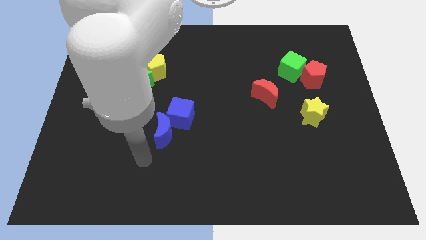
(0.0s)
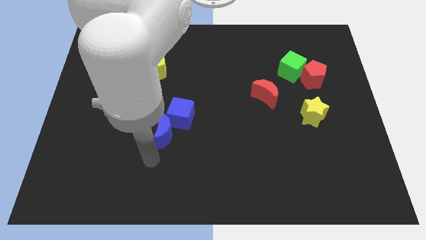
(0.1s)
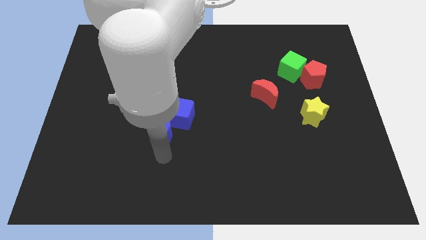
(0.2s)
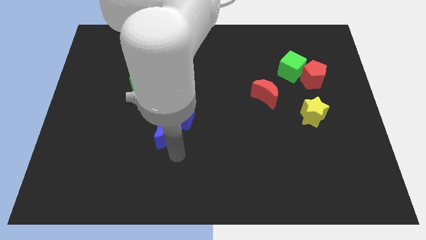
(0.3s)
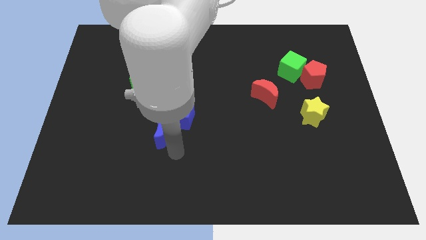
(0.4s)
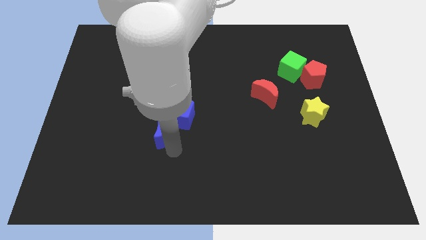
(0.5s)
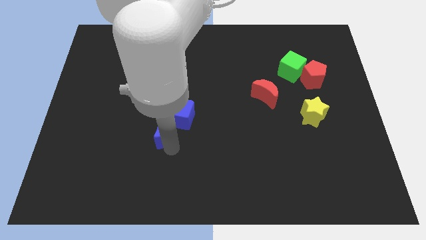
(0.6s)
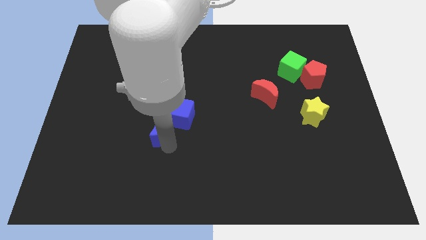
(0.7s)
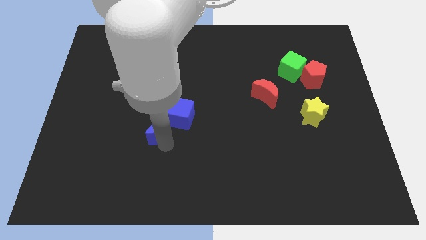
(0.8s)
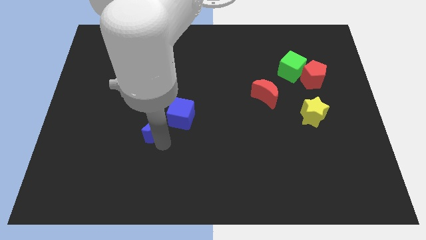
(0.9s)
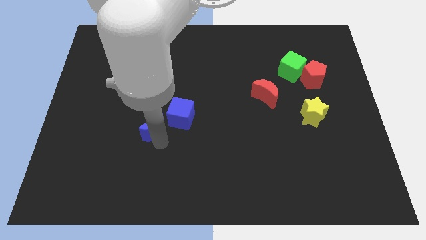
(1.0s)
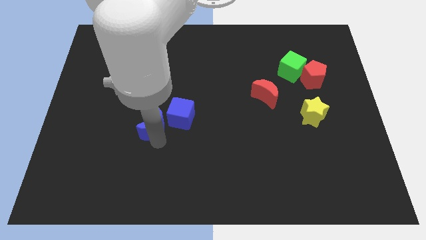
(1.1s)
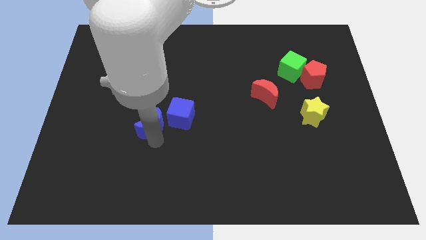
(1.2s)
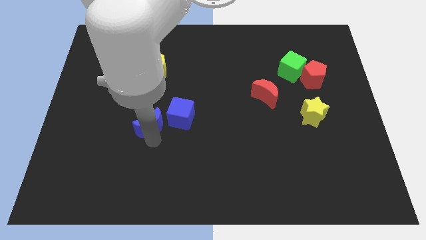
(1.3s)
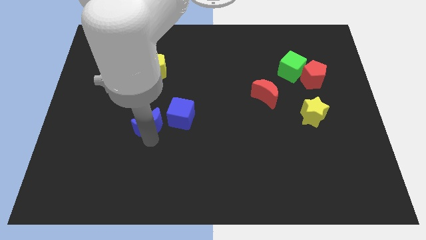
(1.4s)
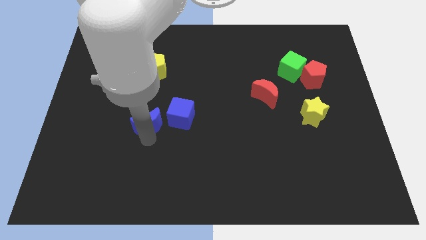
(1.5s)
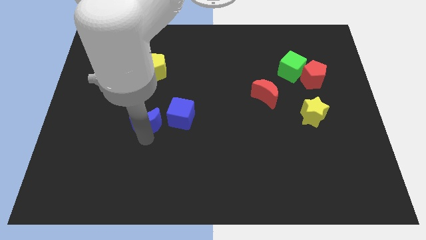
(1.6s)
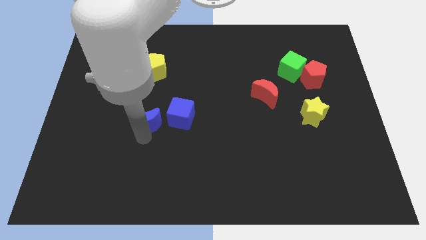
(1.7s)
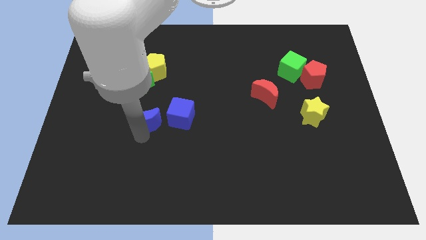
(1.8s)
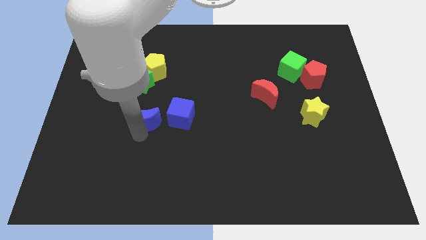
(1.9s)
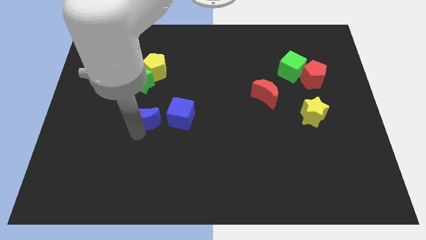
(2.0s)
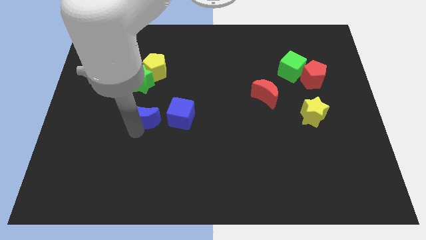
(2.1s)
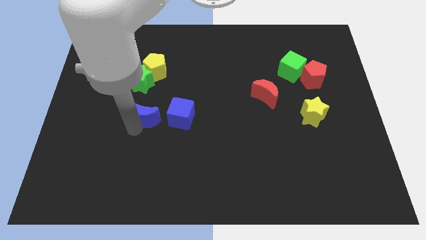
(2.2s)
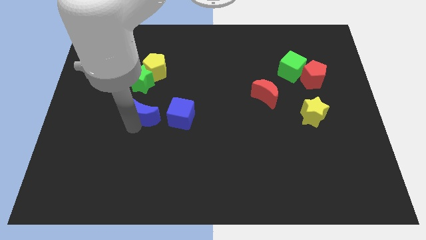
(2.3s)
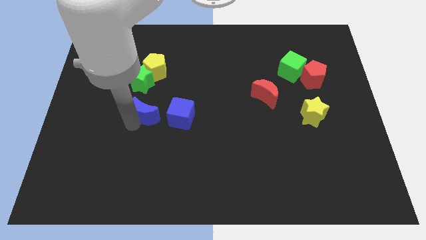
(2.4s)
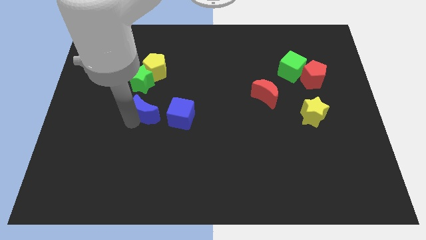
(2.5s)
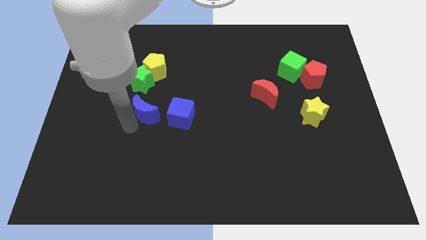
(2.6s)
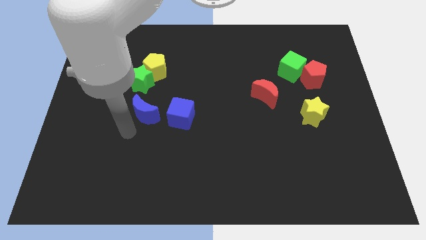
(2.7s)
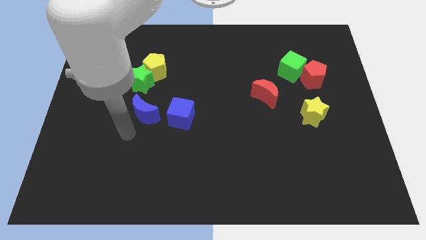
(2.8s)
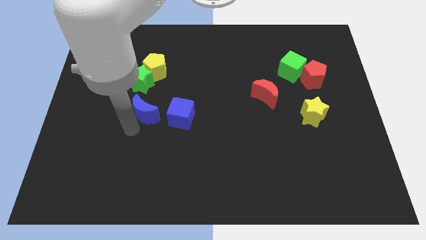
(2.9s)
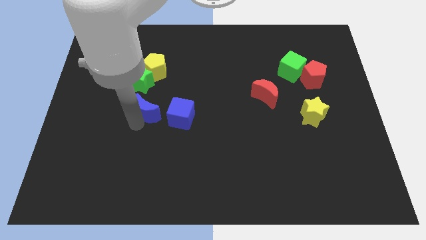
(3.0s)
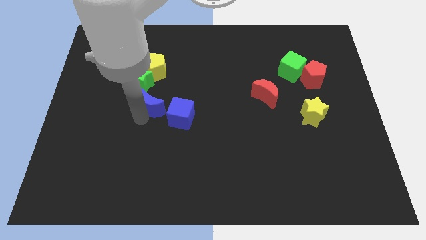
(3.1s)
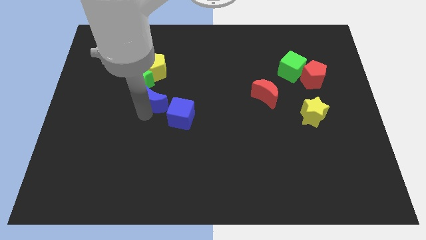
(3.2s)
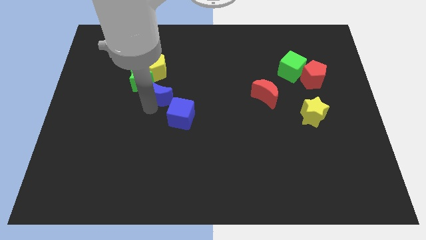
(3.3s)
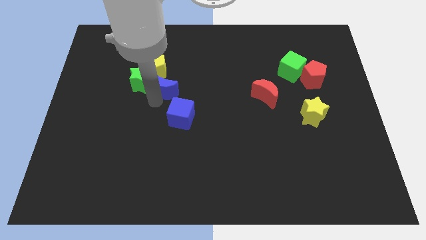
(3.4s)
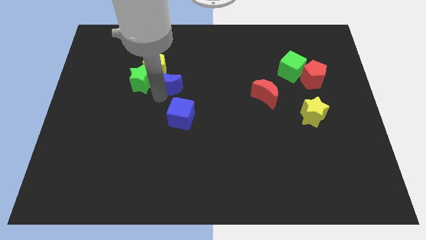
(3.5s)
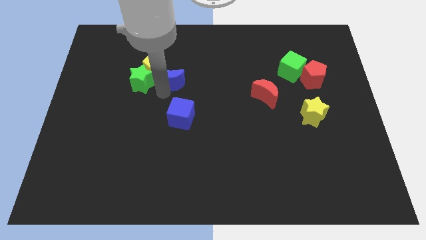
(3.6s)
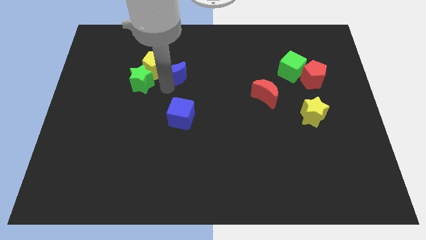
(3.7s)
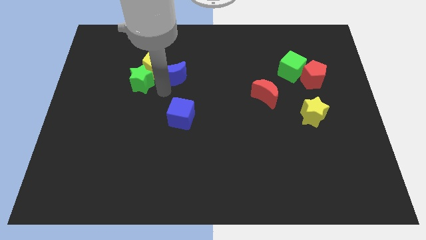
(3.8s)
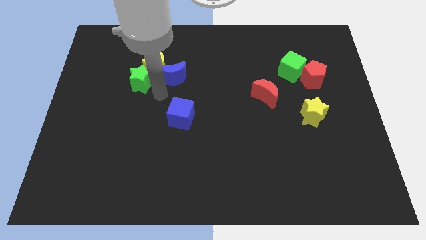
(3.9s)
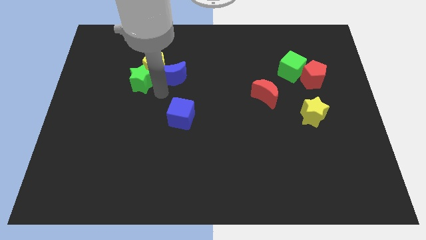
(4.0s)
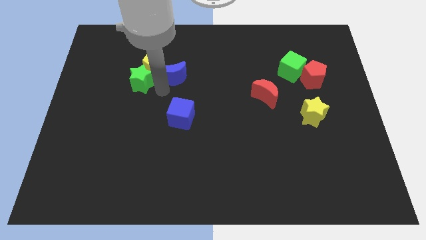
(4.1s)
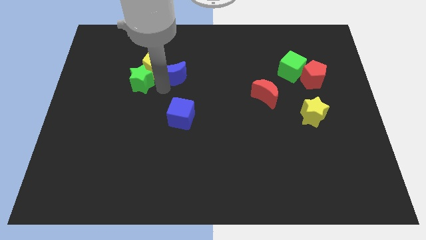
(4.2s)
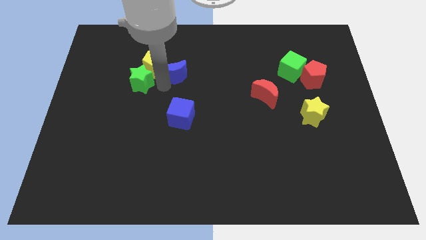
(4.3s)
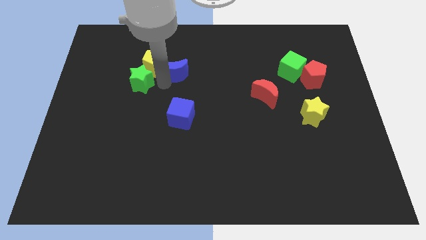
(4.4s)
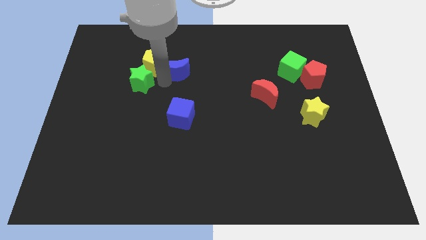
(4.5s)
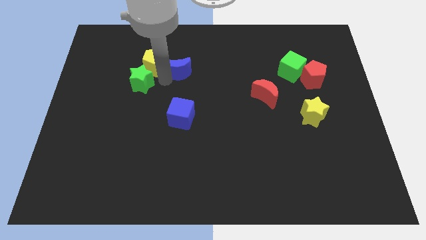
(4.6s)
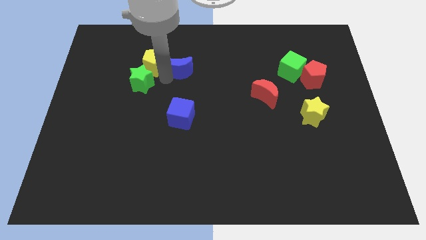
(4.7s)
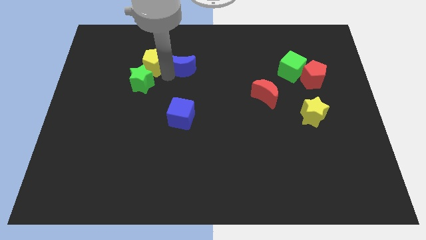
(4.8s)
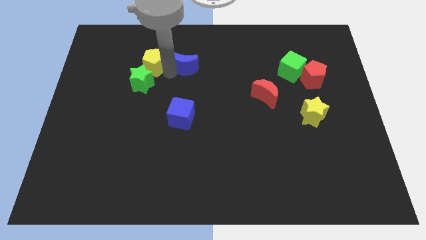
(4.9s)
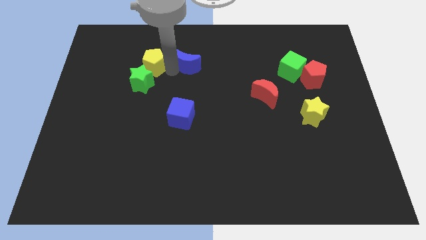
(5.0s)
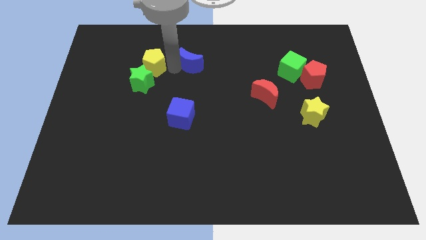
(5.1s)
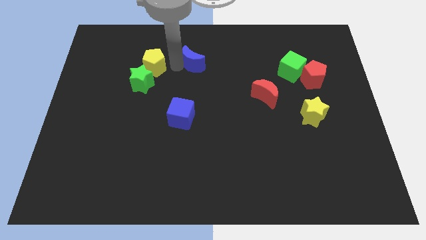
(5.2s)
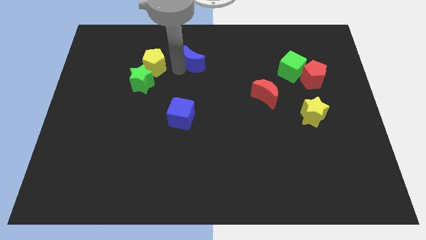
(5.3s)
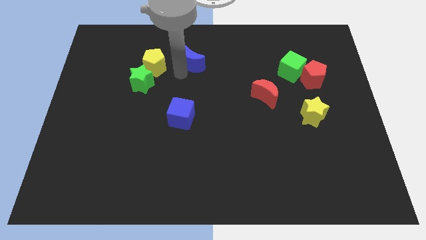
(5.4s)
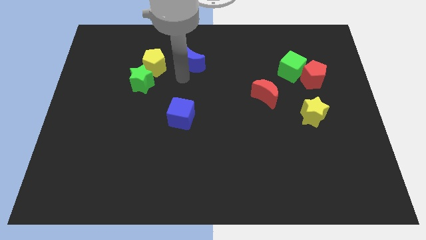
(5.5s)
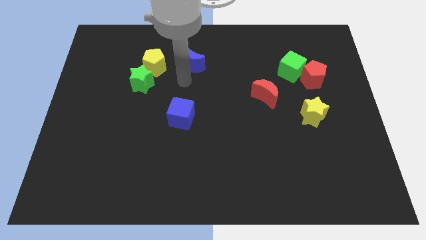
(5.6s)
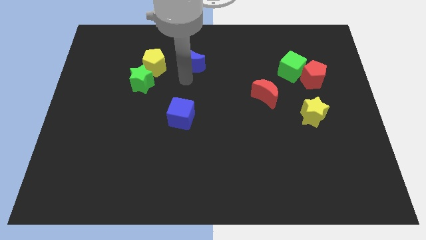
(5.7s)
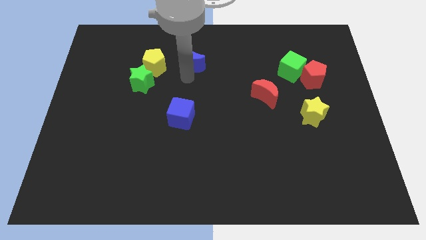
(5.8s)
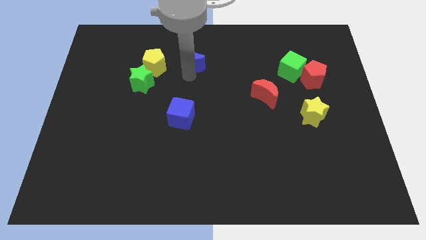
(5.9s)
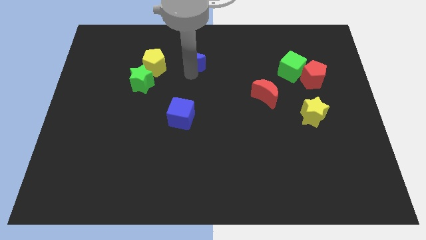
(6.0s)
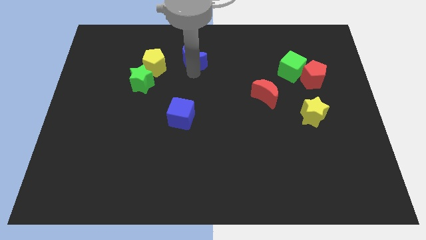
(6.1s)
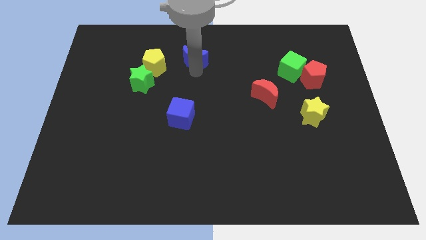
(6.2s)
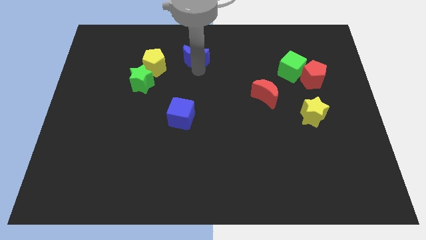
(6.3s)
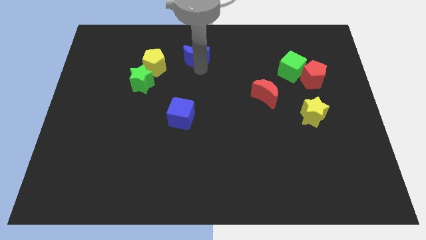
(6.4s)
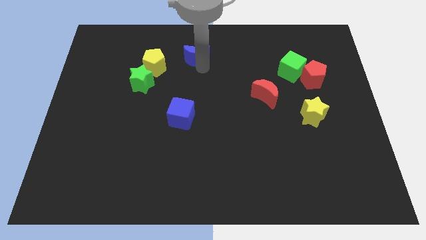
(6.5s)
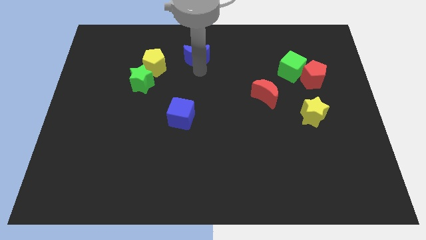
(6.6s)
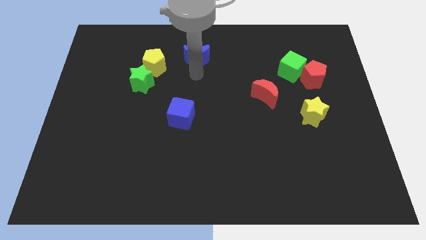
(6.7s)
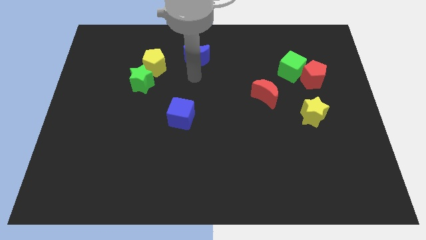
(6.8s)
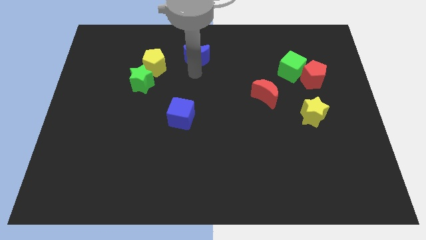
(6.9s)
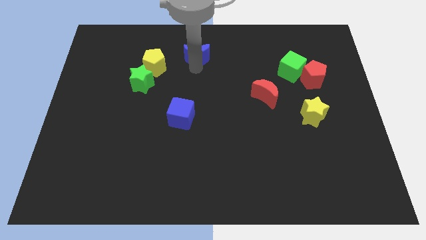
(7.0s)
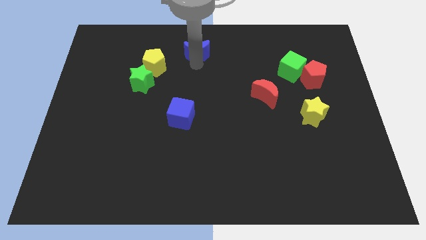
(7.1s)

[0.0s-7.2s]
slide the blue moon to the towards your base
